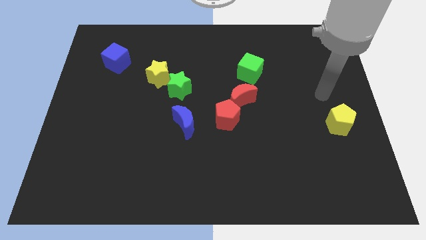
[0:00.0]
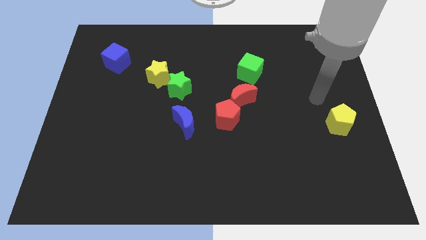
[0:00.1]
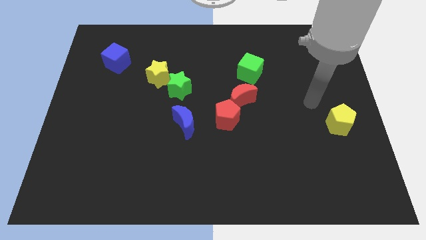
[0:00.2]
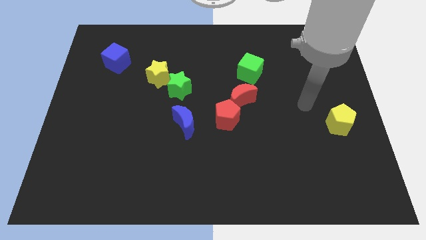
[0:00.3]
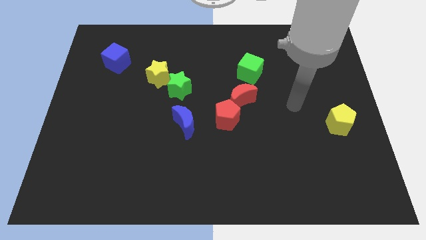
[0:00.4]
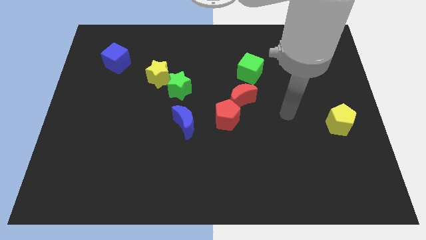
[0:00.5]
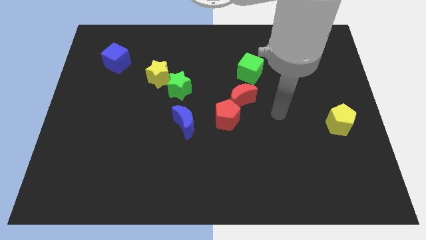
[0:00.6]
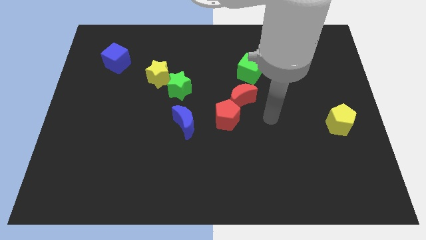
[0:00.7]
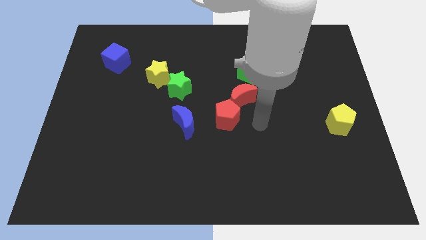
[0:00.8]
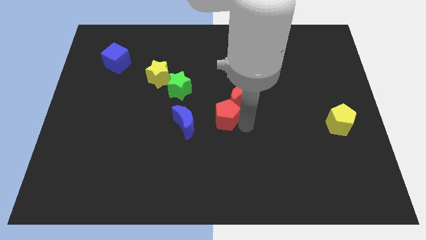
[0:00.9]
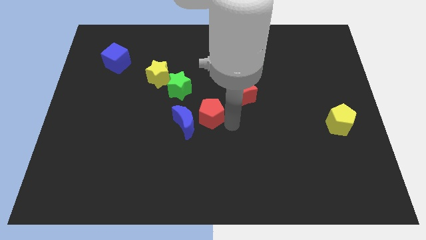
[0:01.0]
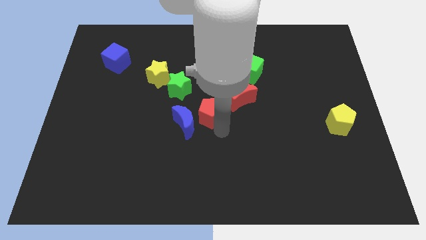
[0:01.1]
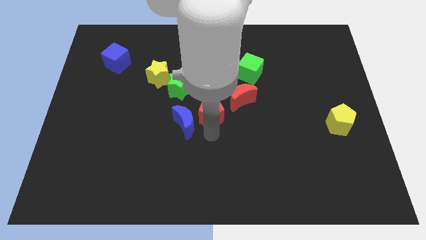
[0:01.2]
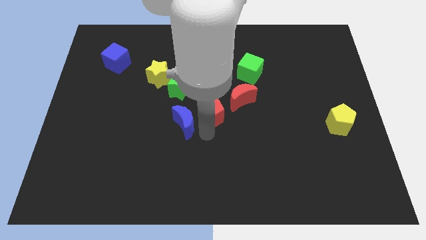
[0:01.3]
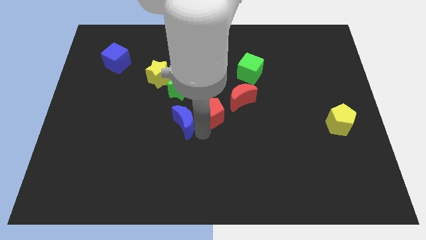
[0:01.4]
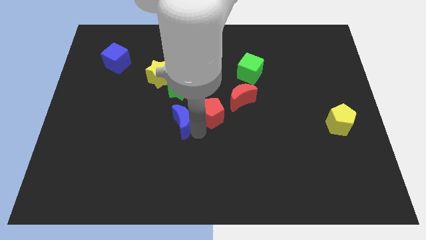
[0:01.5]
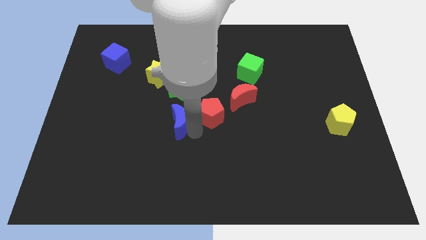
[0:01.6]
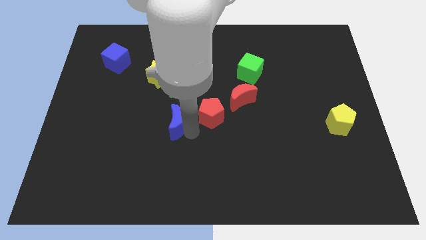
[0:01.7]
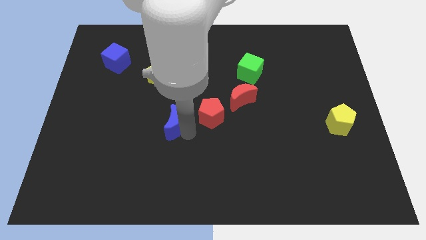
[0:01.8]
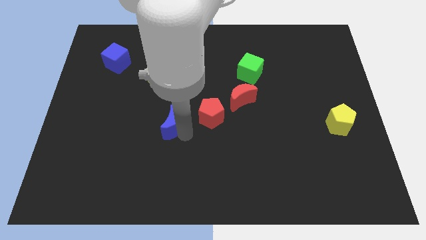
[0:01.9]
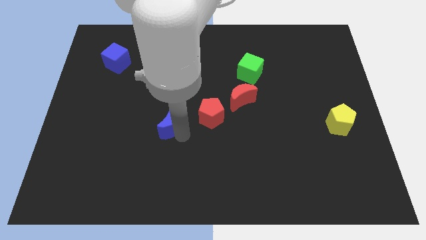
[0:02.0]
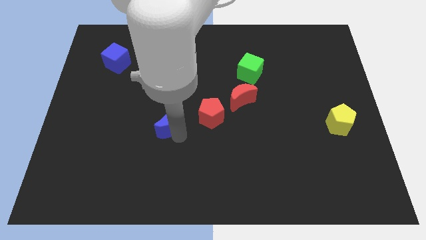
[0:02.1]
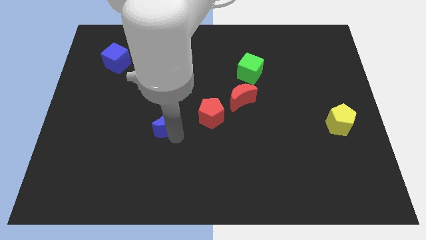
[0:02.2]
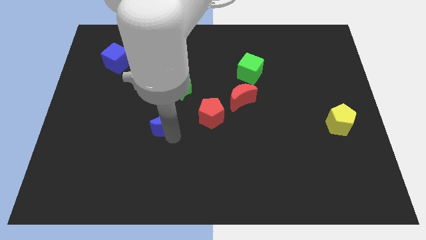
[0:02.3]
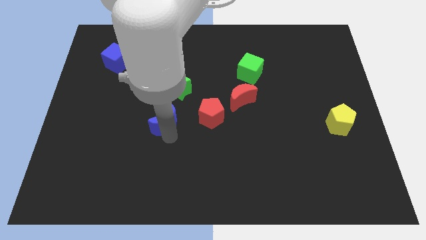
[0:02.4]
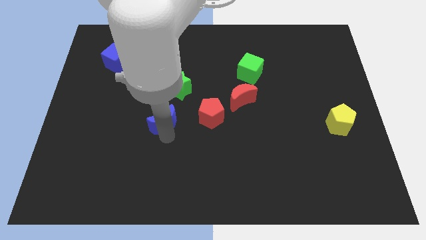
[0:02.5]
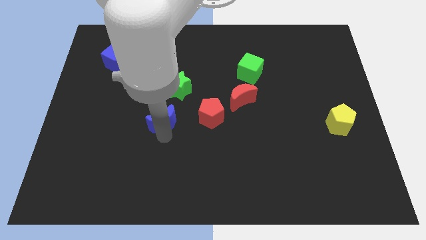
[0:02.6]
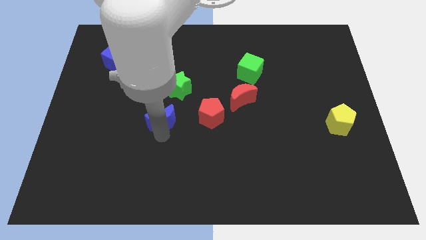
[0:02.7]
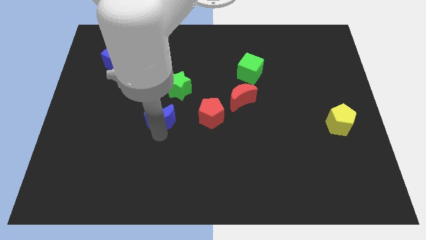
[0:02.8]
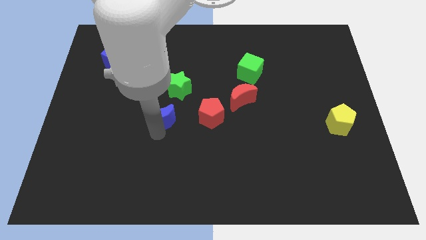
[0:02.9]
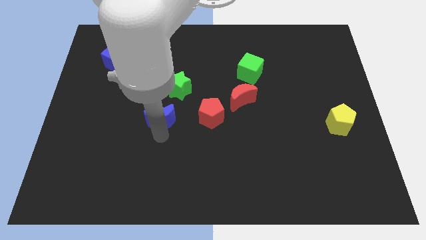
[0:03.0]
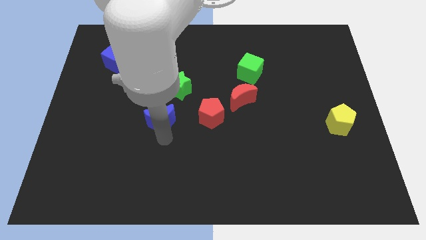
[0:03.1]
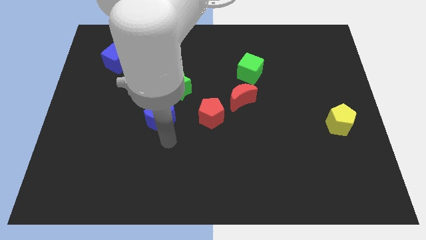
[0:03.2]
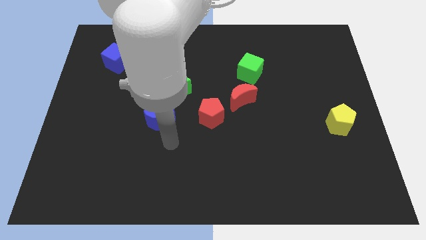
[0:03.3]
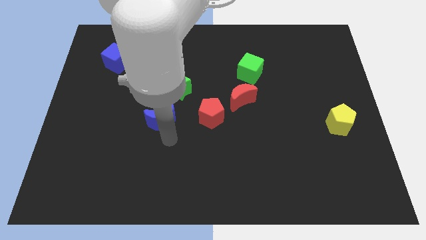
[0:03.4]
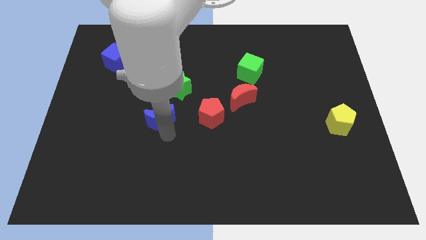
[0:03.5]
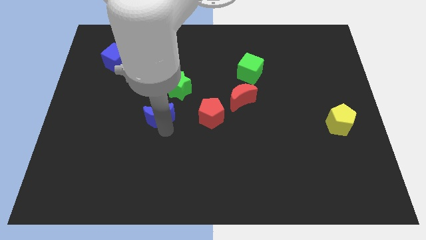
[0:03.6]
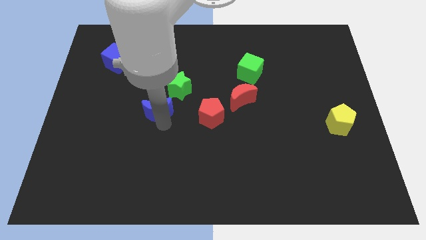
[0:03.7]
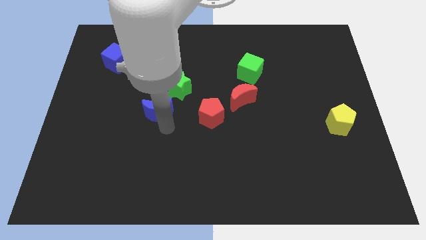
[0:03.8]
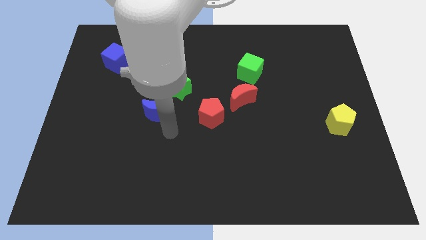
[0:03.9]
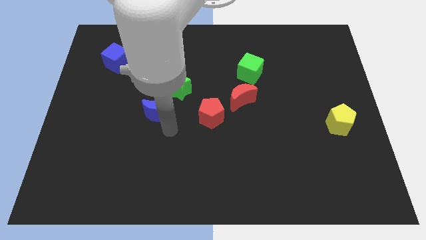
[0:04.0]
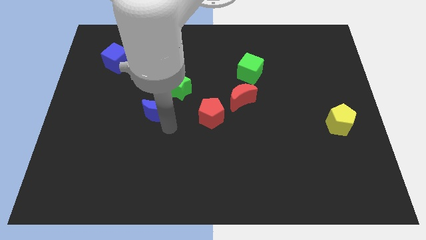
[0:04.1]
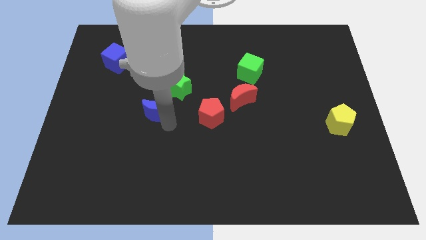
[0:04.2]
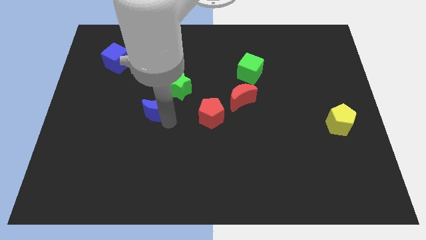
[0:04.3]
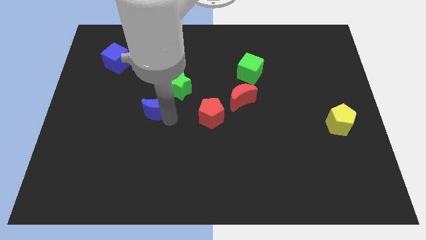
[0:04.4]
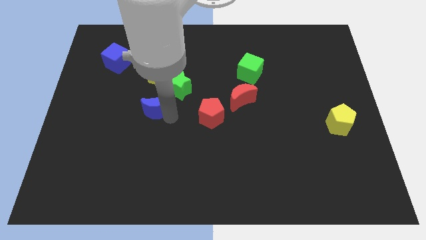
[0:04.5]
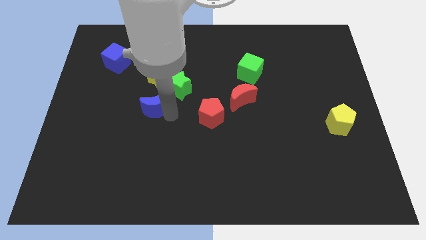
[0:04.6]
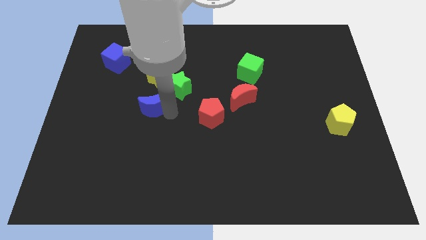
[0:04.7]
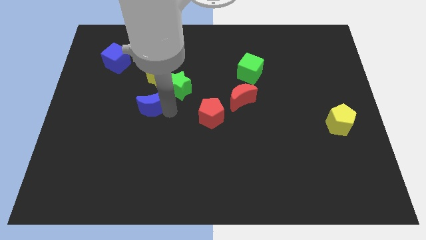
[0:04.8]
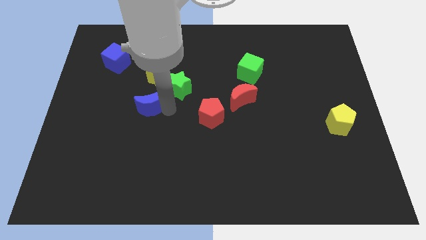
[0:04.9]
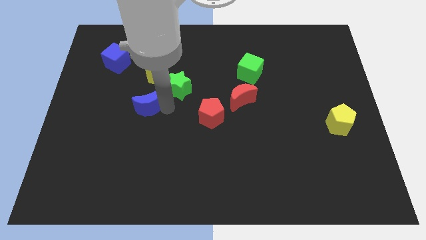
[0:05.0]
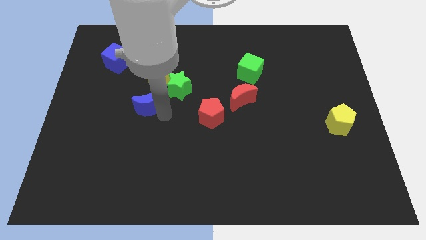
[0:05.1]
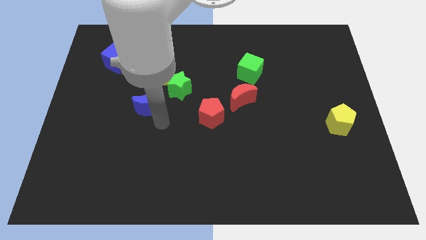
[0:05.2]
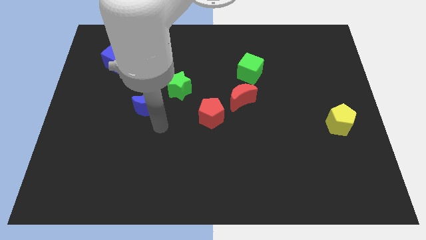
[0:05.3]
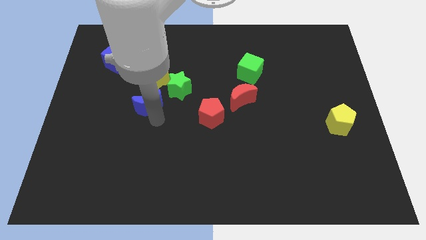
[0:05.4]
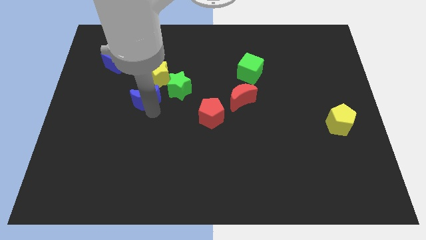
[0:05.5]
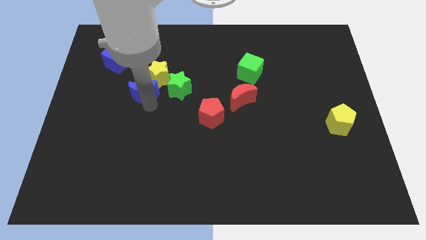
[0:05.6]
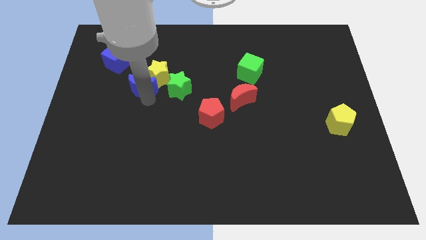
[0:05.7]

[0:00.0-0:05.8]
put the blue moon to the bottom right of the blue cube

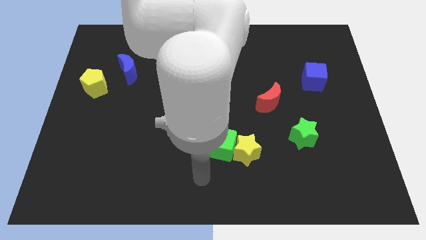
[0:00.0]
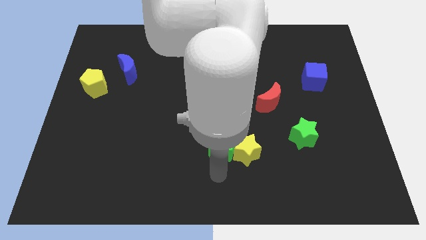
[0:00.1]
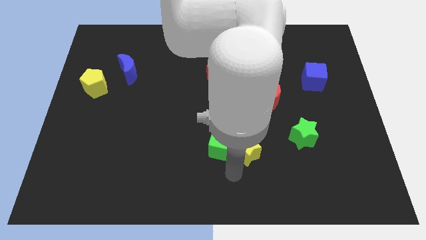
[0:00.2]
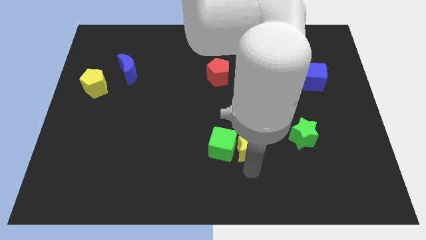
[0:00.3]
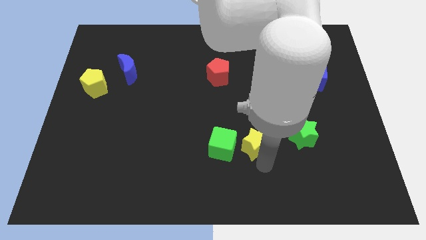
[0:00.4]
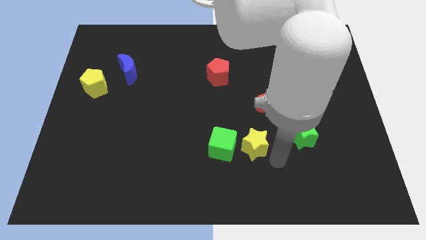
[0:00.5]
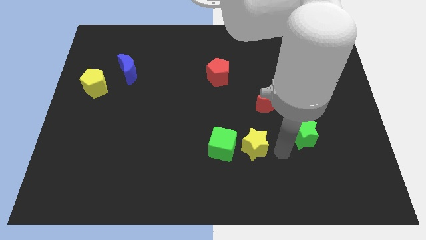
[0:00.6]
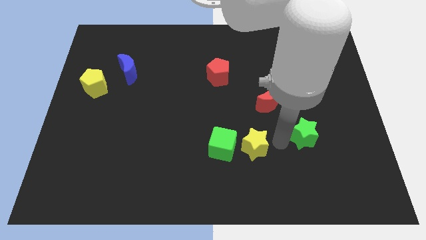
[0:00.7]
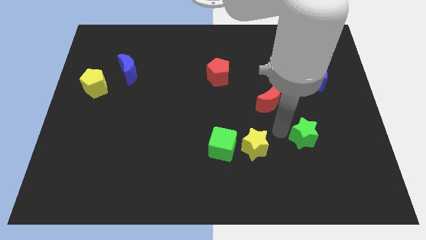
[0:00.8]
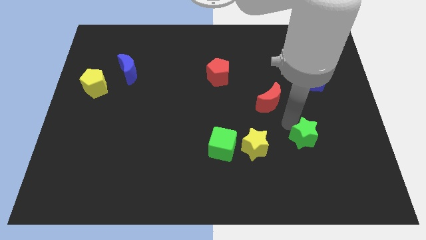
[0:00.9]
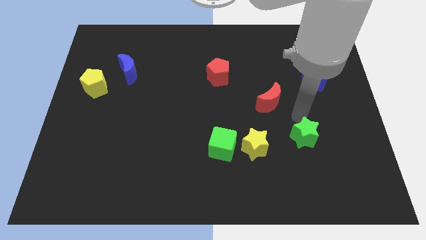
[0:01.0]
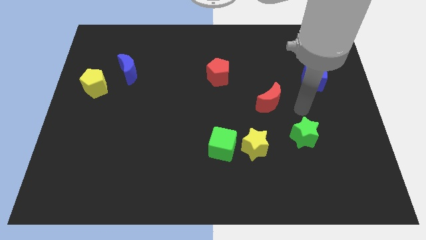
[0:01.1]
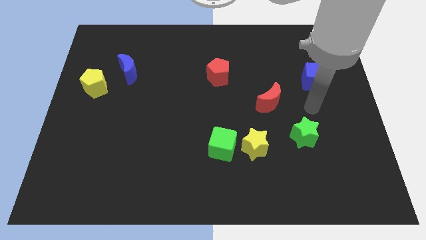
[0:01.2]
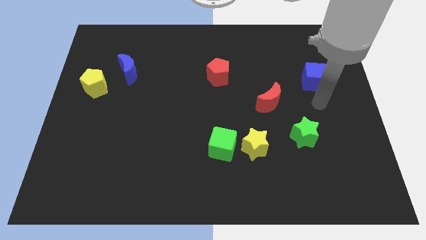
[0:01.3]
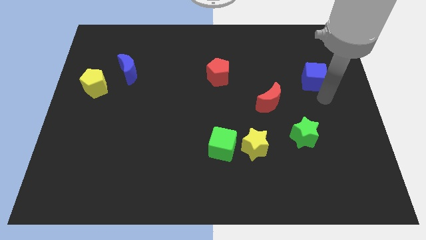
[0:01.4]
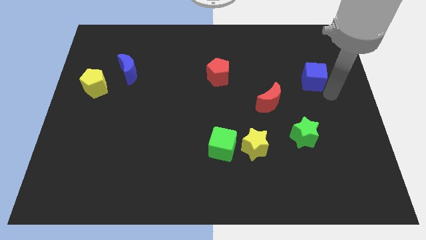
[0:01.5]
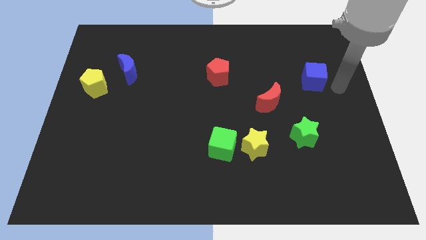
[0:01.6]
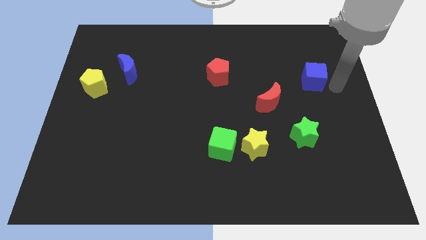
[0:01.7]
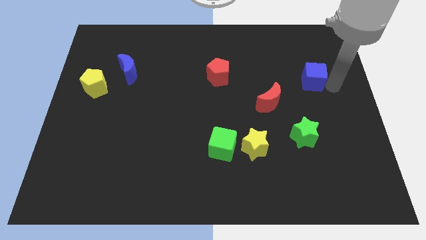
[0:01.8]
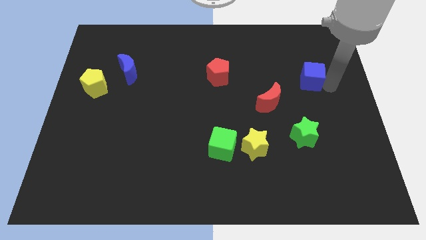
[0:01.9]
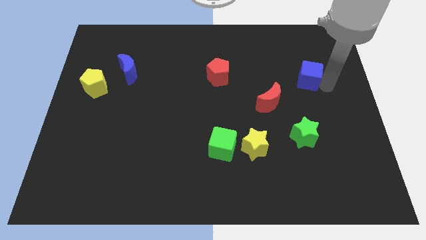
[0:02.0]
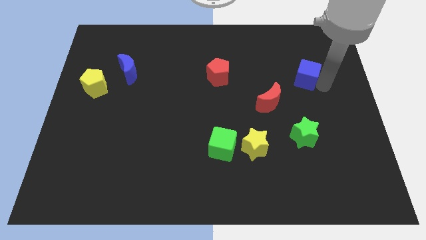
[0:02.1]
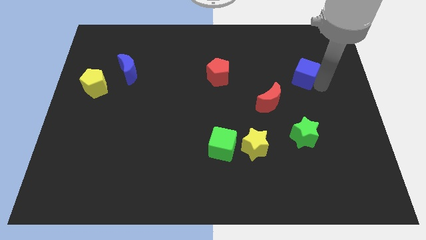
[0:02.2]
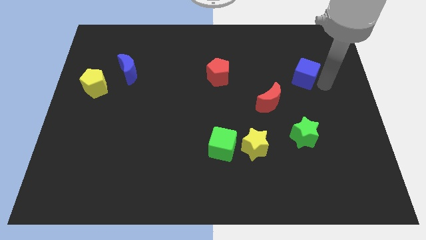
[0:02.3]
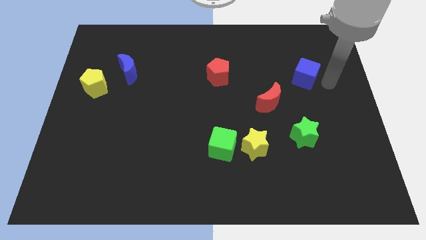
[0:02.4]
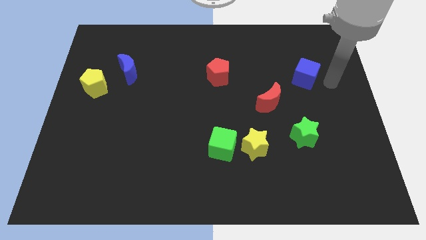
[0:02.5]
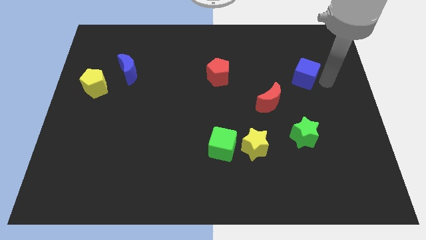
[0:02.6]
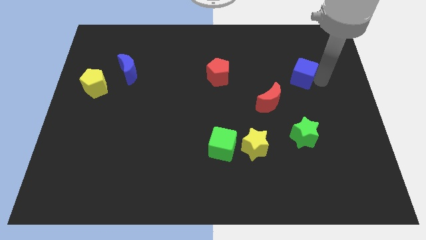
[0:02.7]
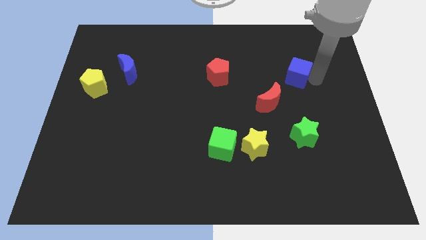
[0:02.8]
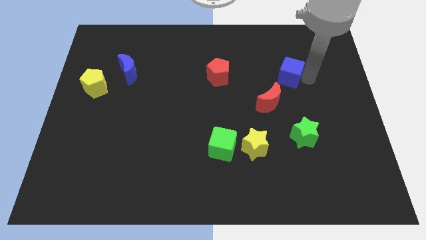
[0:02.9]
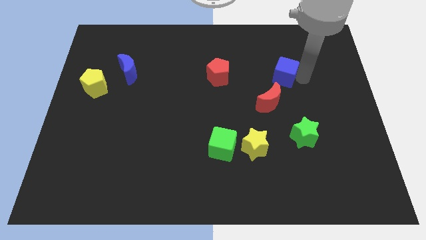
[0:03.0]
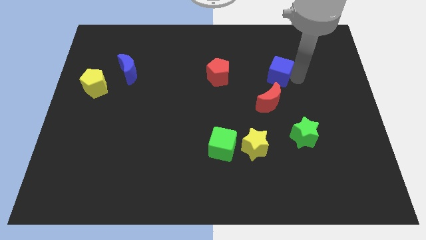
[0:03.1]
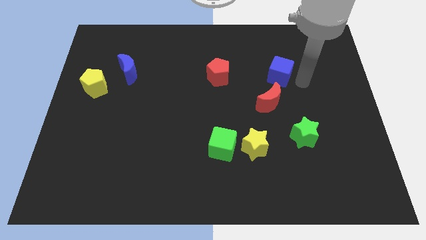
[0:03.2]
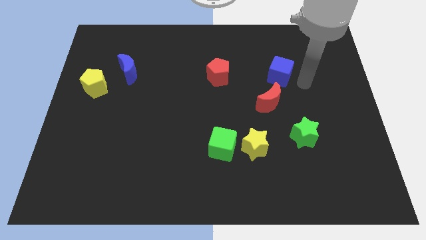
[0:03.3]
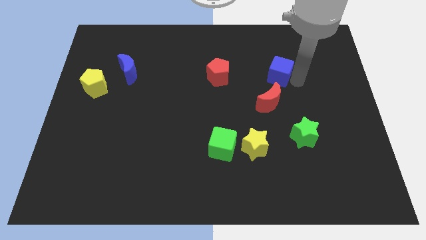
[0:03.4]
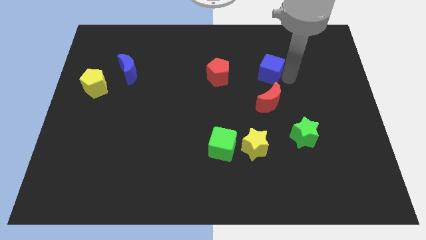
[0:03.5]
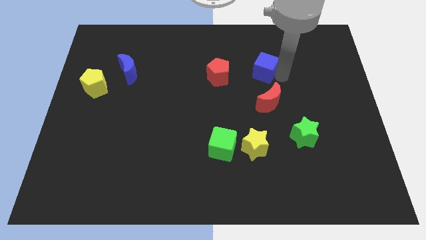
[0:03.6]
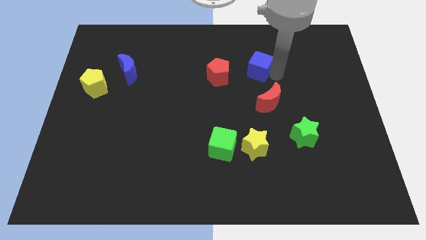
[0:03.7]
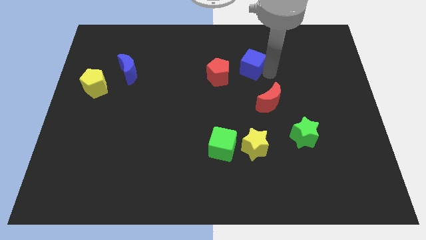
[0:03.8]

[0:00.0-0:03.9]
put the blue cube diagonally up and to the right of the red pentagon
